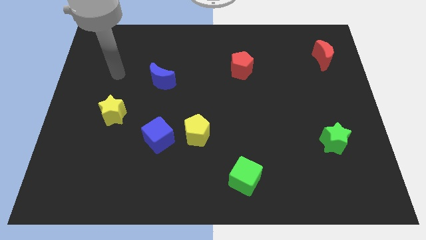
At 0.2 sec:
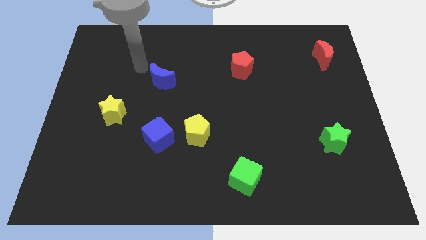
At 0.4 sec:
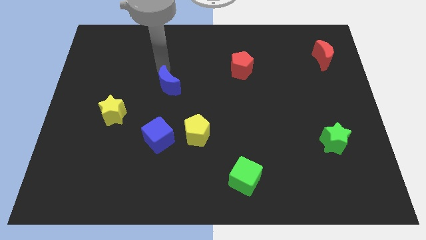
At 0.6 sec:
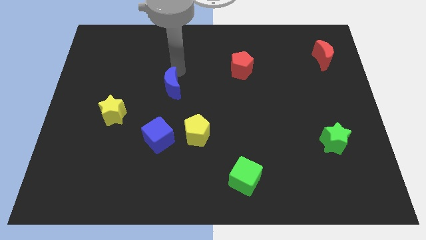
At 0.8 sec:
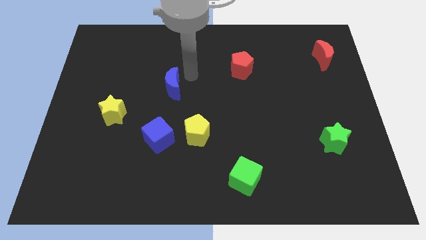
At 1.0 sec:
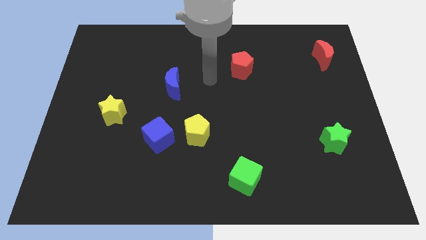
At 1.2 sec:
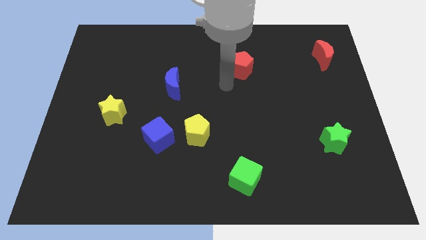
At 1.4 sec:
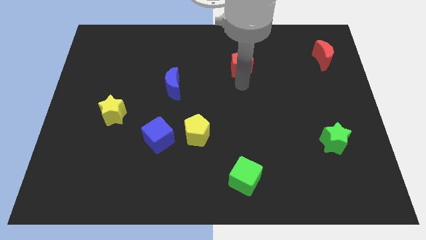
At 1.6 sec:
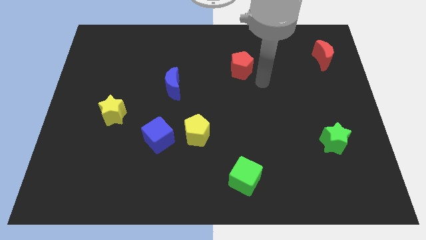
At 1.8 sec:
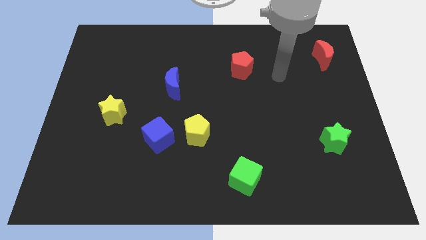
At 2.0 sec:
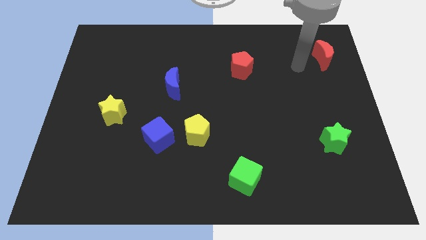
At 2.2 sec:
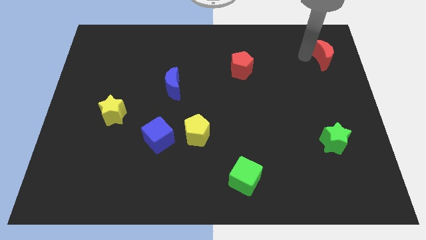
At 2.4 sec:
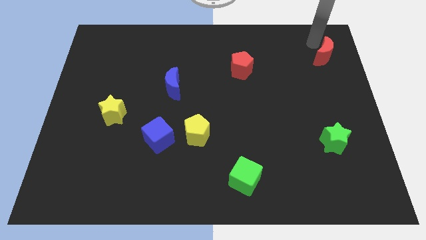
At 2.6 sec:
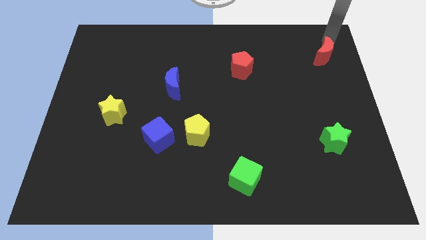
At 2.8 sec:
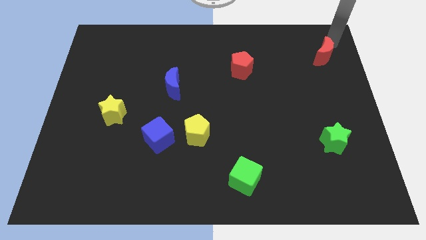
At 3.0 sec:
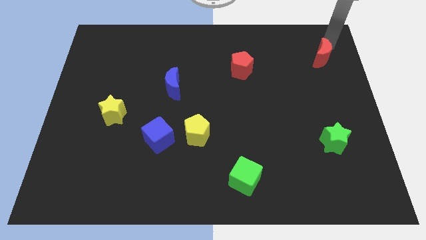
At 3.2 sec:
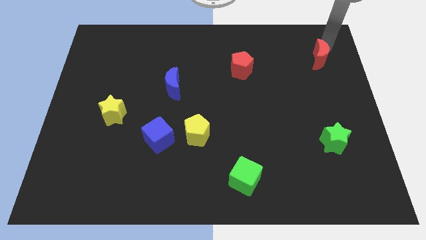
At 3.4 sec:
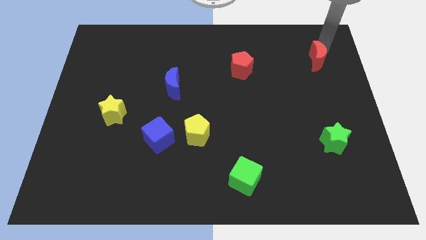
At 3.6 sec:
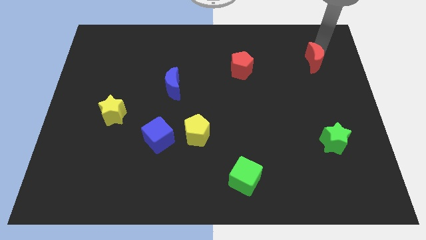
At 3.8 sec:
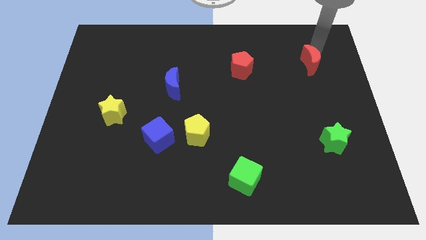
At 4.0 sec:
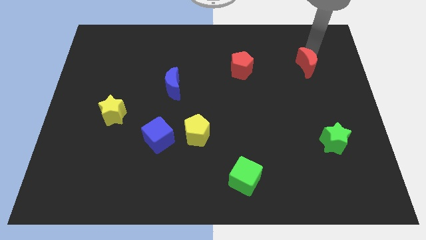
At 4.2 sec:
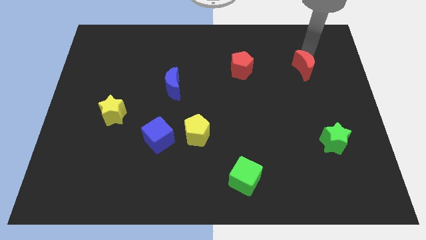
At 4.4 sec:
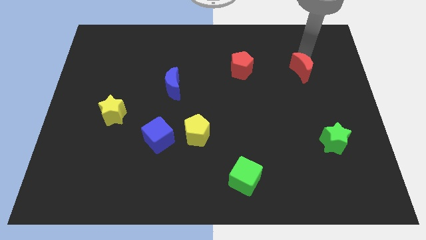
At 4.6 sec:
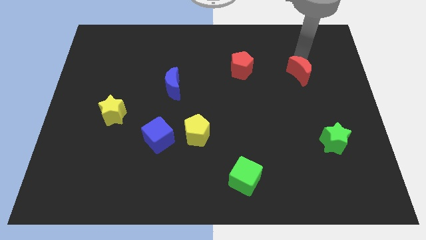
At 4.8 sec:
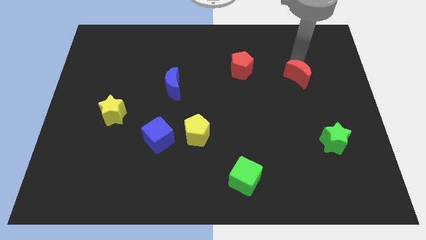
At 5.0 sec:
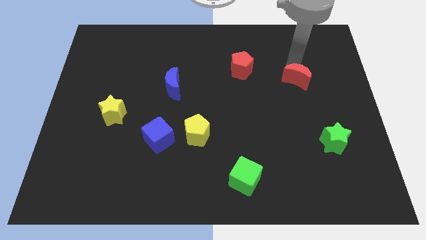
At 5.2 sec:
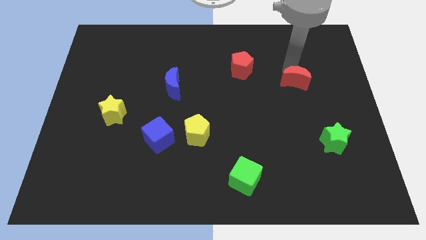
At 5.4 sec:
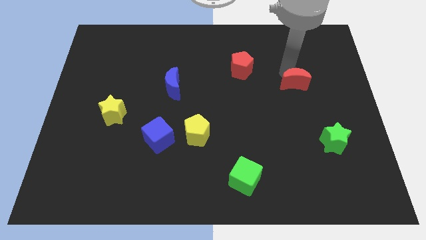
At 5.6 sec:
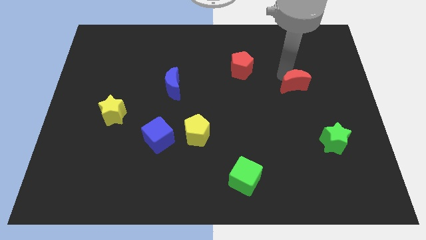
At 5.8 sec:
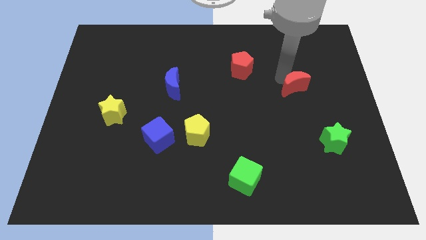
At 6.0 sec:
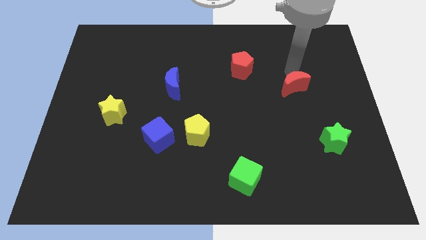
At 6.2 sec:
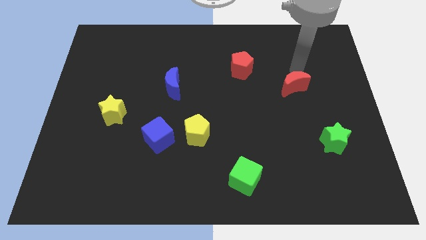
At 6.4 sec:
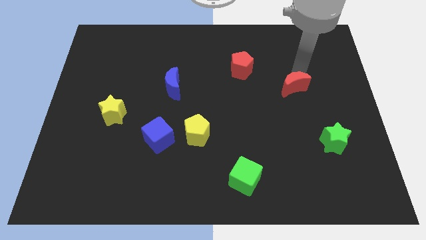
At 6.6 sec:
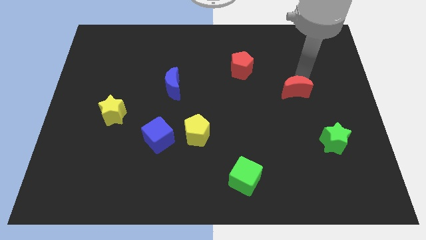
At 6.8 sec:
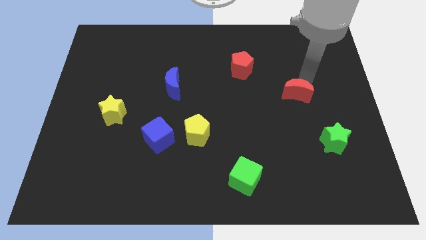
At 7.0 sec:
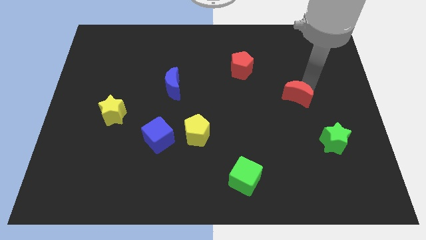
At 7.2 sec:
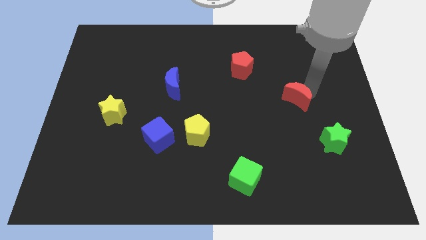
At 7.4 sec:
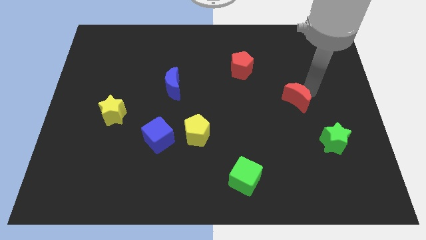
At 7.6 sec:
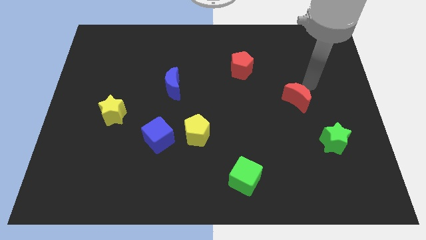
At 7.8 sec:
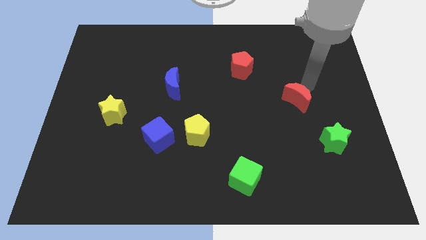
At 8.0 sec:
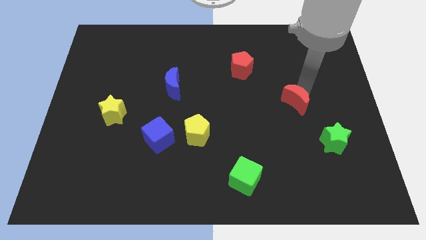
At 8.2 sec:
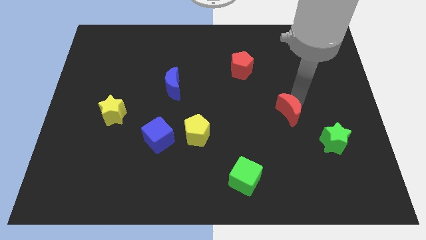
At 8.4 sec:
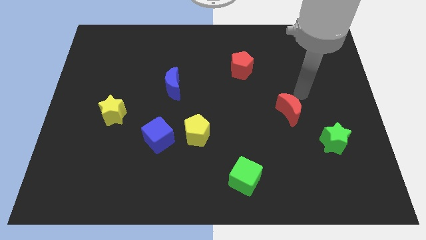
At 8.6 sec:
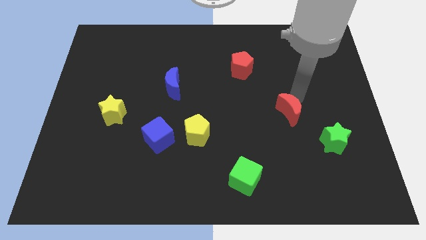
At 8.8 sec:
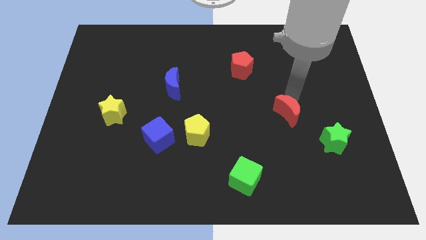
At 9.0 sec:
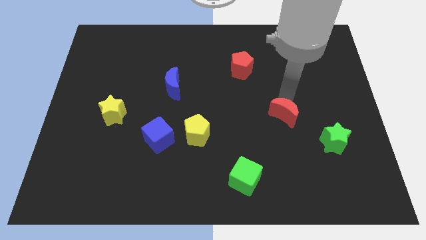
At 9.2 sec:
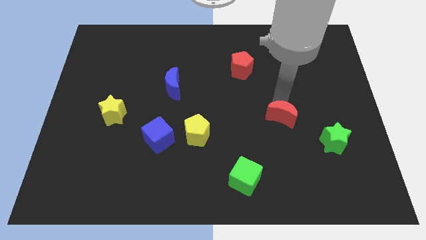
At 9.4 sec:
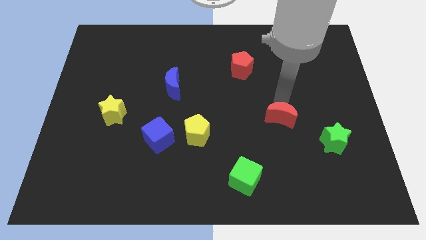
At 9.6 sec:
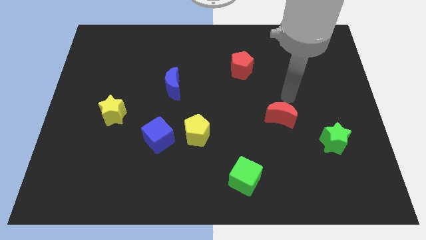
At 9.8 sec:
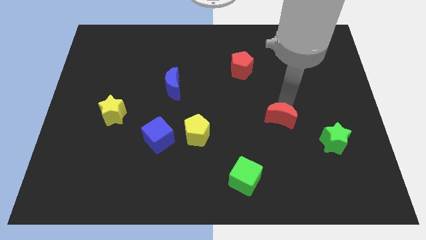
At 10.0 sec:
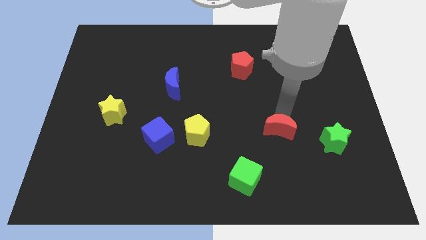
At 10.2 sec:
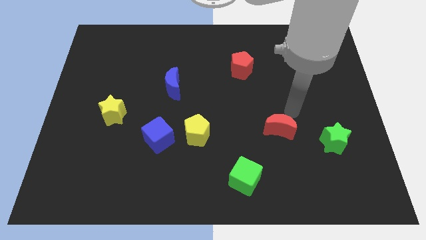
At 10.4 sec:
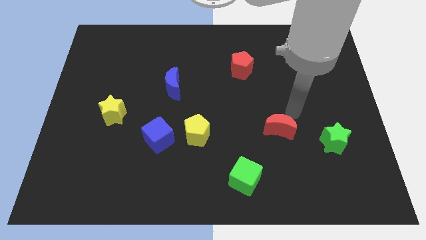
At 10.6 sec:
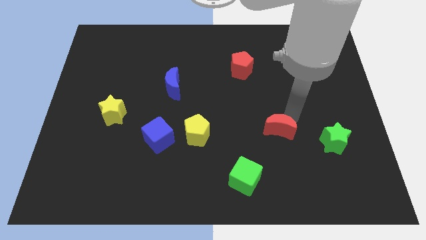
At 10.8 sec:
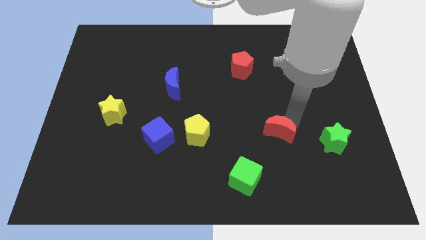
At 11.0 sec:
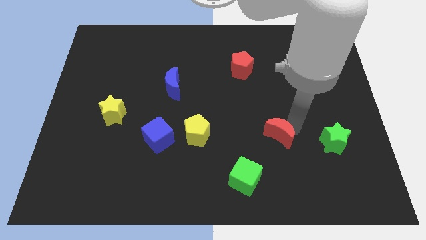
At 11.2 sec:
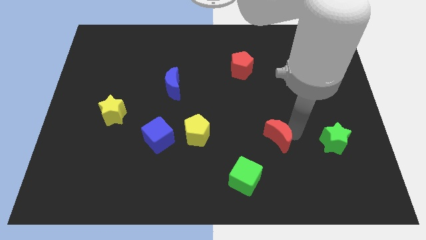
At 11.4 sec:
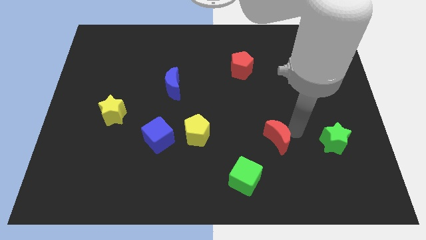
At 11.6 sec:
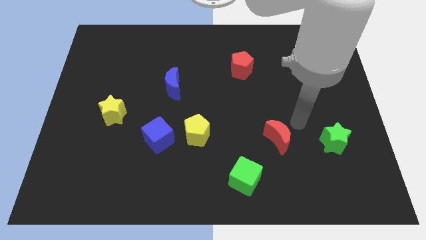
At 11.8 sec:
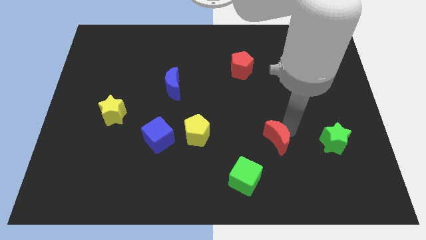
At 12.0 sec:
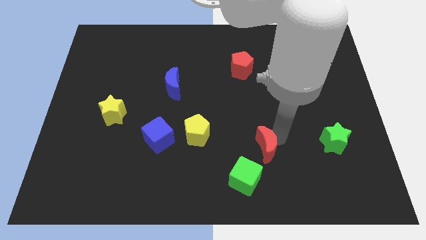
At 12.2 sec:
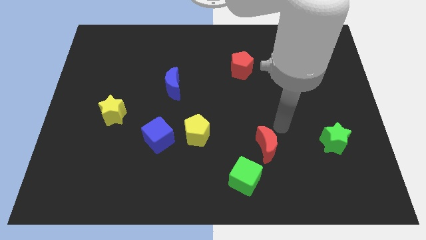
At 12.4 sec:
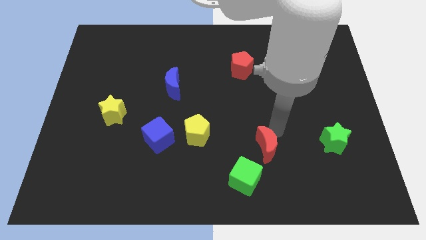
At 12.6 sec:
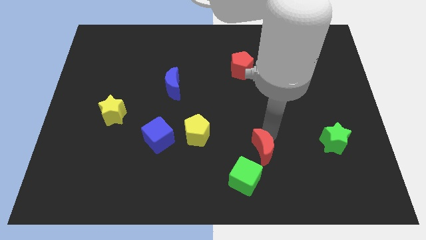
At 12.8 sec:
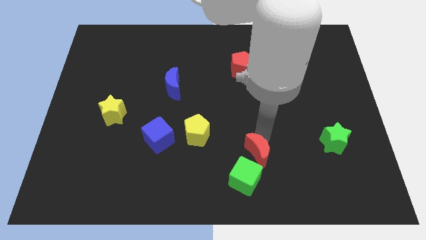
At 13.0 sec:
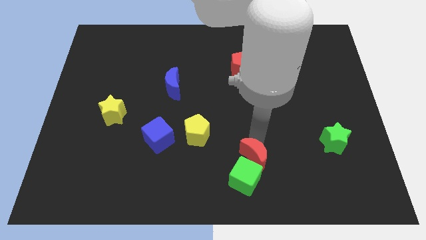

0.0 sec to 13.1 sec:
put the red moon towards the green cube

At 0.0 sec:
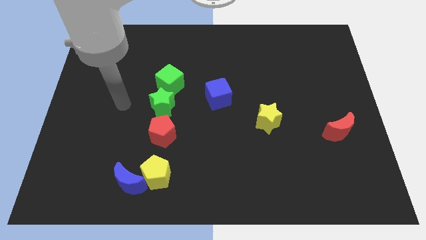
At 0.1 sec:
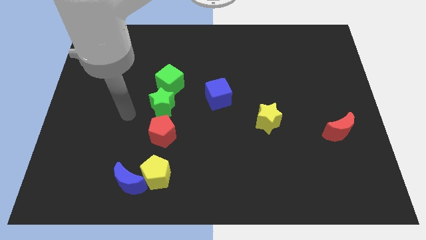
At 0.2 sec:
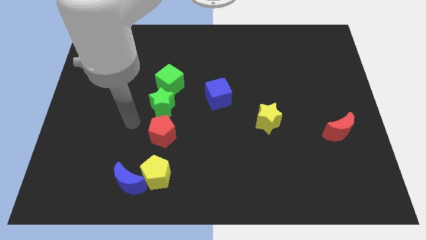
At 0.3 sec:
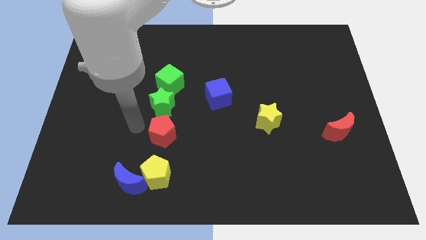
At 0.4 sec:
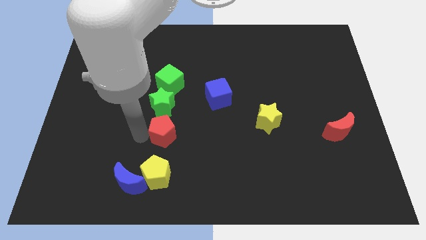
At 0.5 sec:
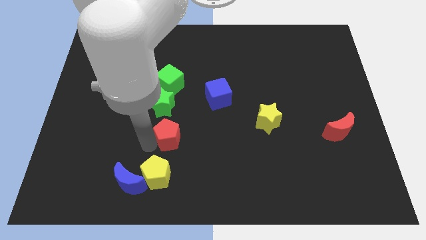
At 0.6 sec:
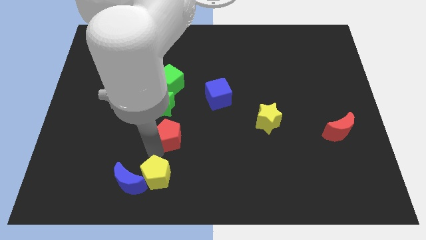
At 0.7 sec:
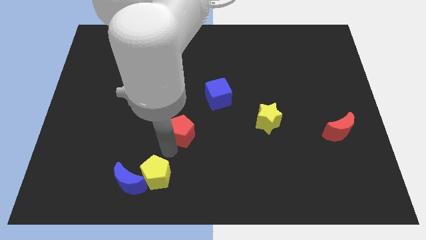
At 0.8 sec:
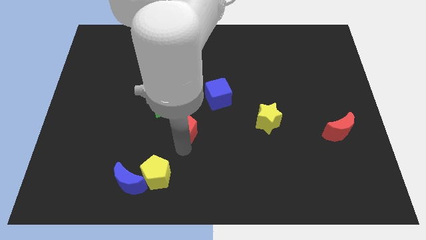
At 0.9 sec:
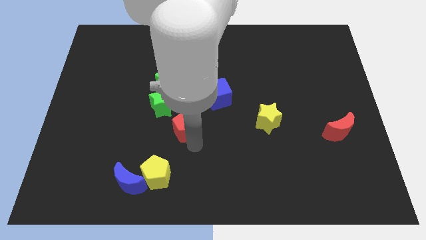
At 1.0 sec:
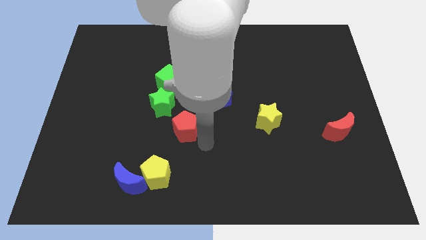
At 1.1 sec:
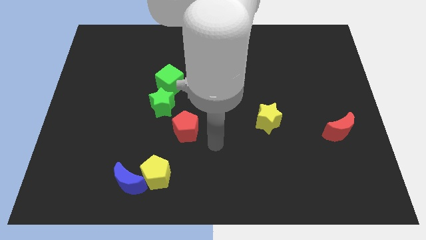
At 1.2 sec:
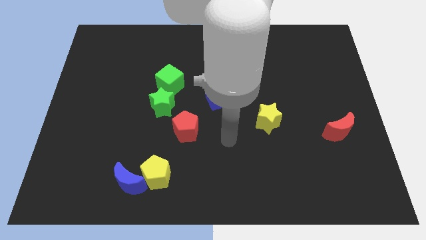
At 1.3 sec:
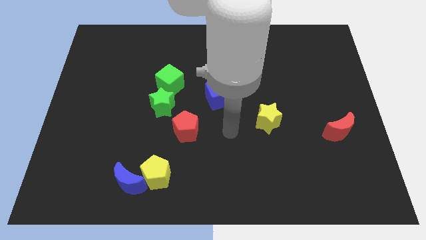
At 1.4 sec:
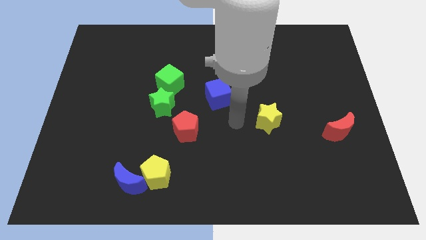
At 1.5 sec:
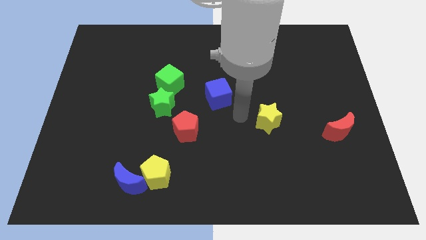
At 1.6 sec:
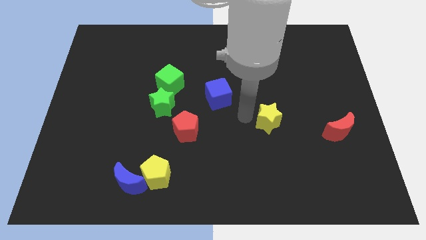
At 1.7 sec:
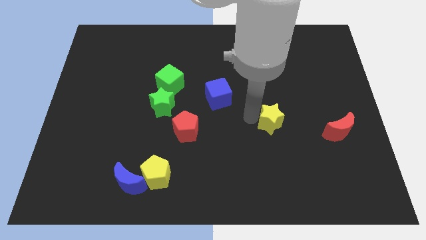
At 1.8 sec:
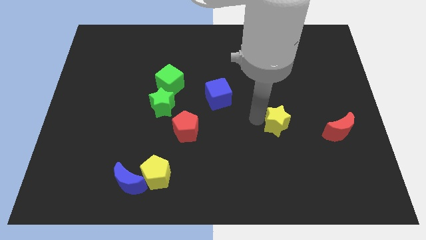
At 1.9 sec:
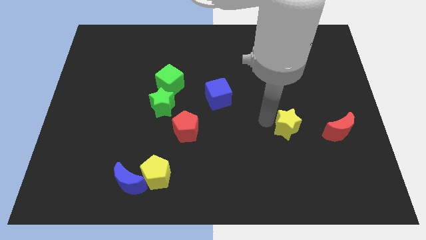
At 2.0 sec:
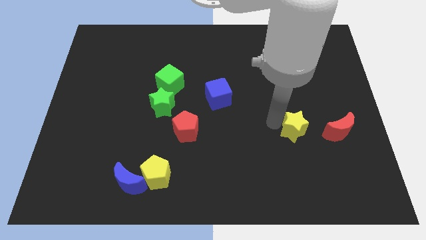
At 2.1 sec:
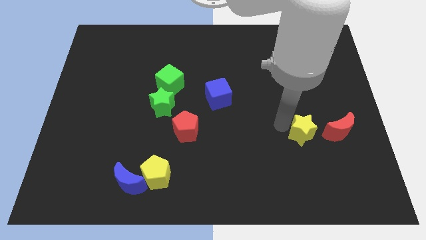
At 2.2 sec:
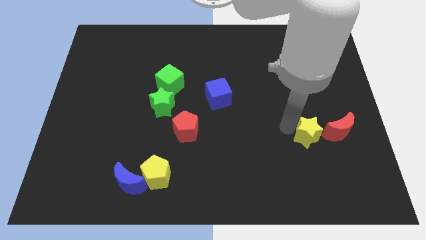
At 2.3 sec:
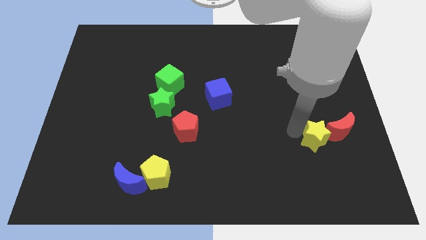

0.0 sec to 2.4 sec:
push the yellow star close to the red moon
